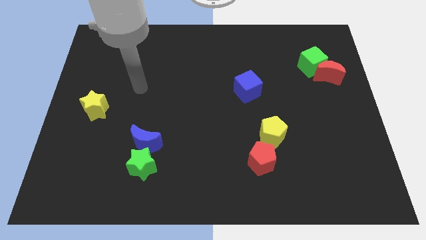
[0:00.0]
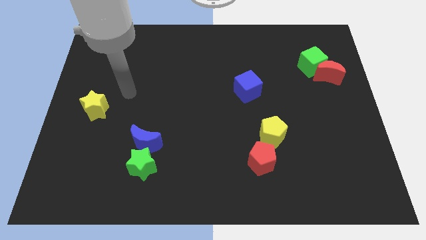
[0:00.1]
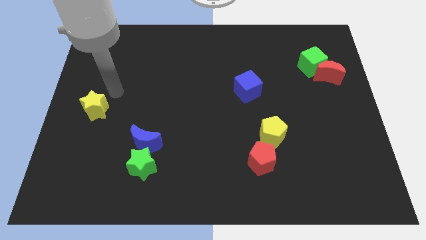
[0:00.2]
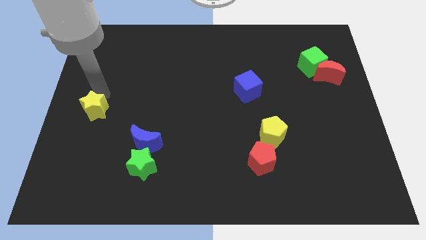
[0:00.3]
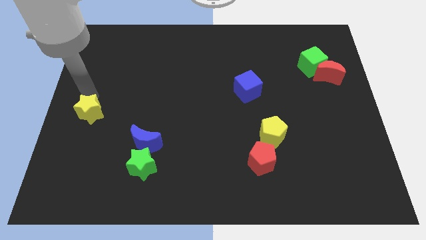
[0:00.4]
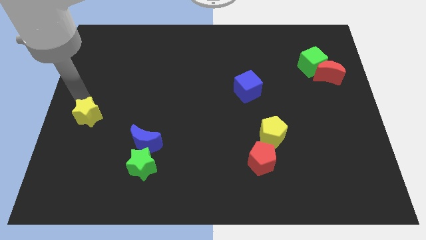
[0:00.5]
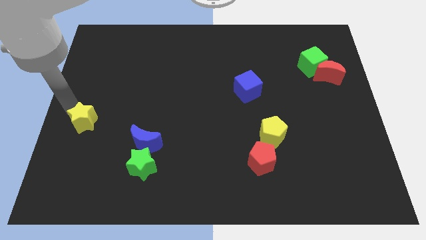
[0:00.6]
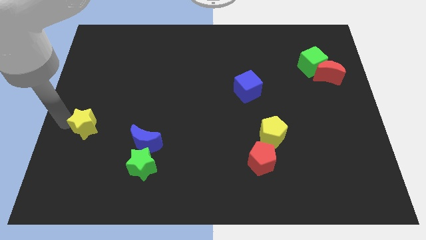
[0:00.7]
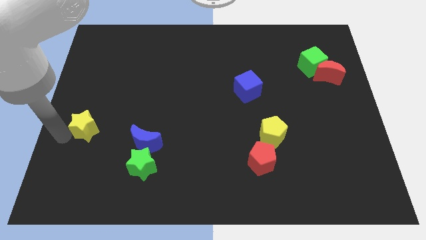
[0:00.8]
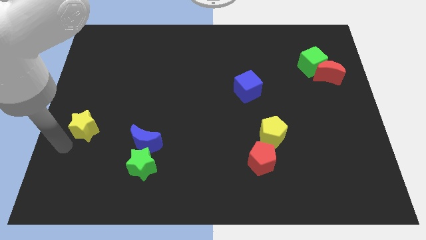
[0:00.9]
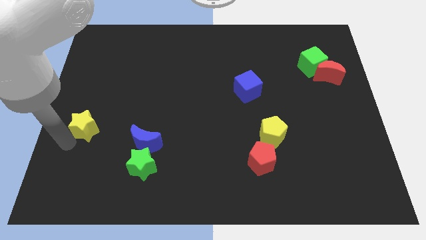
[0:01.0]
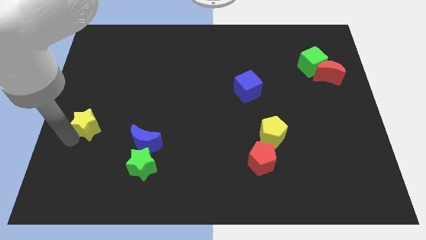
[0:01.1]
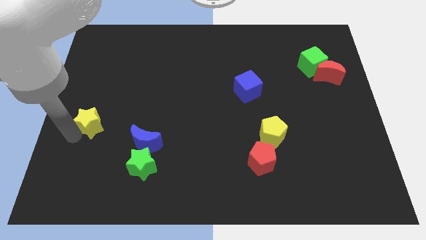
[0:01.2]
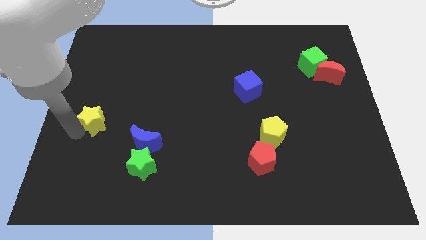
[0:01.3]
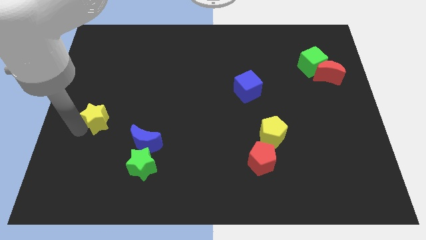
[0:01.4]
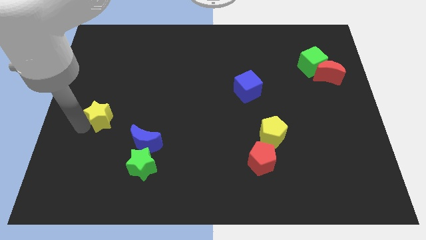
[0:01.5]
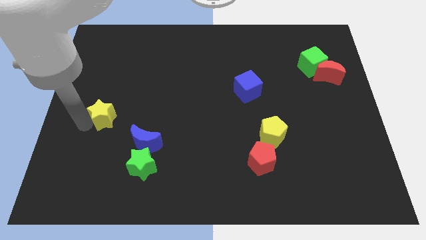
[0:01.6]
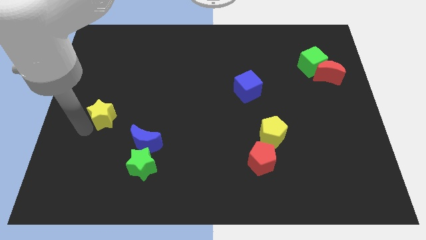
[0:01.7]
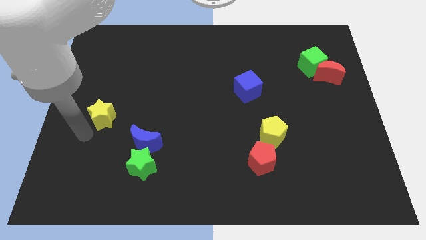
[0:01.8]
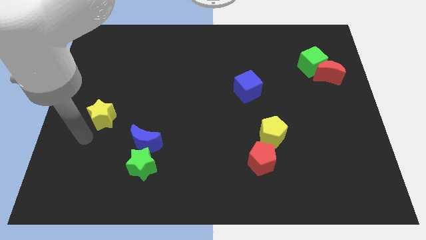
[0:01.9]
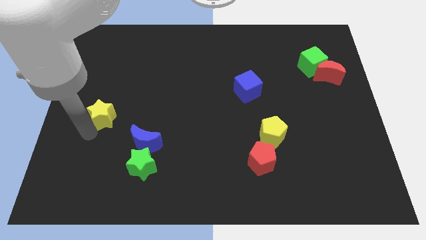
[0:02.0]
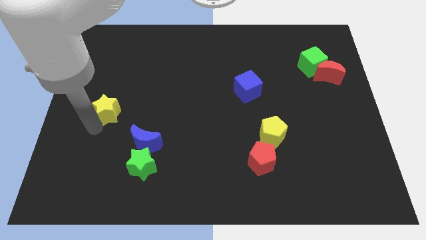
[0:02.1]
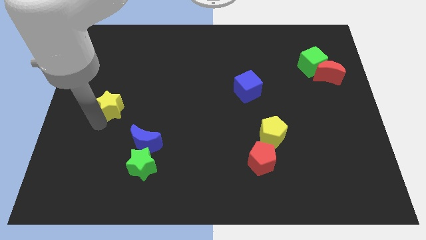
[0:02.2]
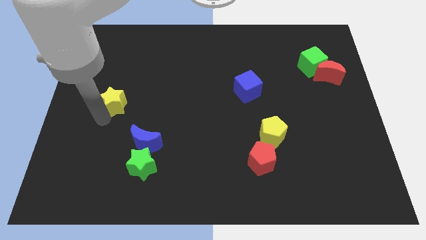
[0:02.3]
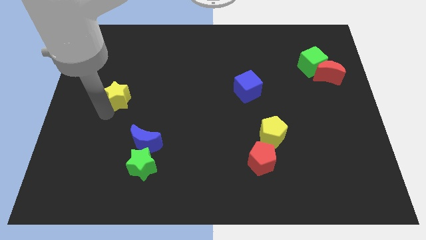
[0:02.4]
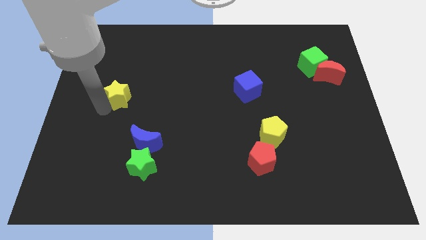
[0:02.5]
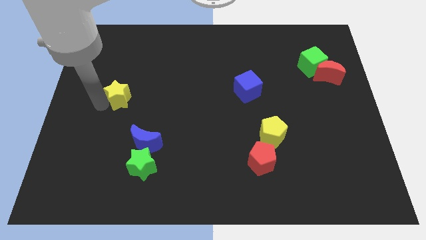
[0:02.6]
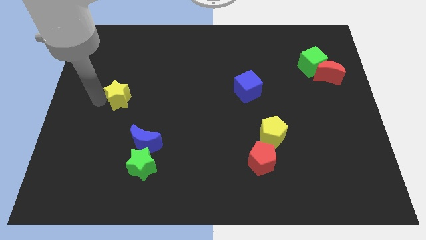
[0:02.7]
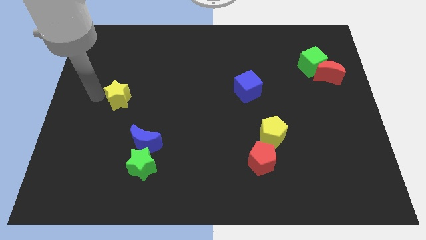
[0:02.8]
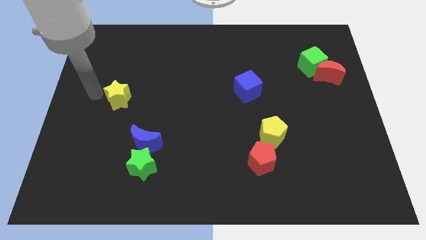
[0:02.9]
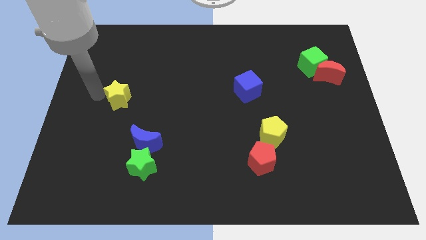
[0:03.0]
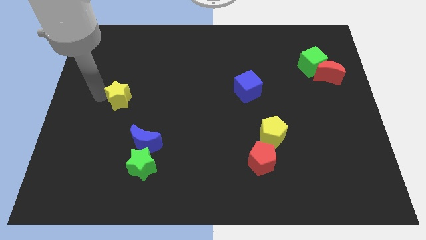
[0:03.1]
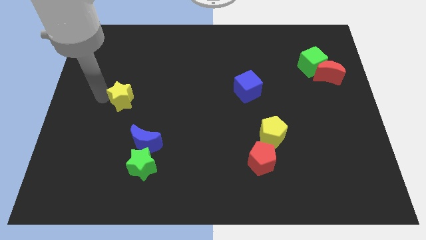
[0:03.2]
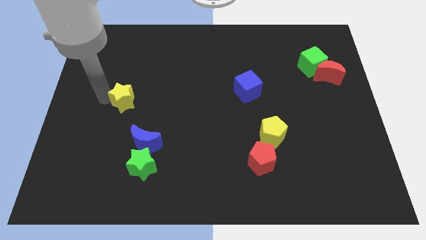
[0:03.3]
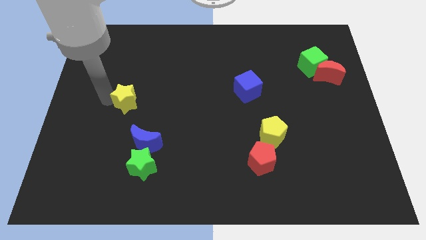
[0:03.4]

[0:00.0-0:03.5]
slide the yellow star a little bit to the right

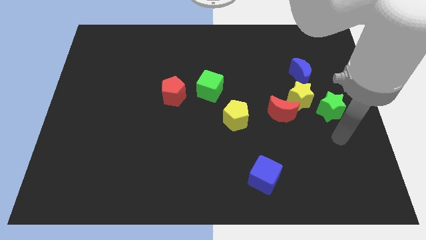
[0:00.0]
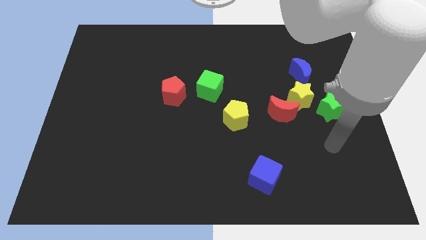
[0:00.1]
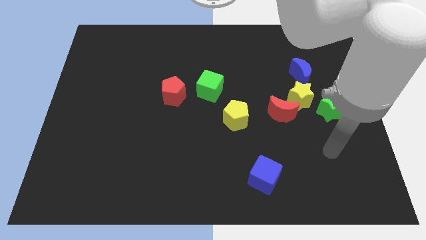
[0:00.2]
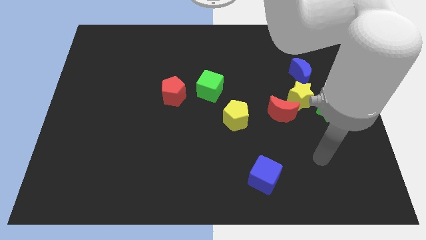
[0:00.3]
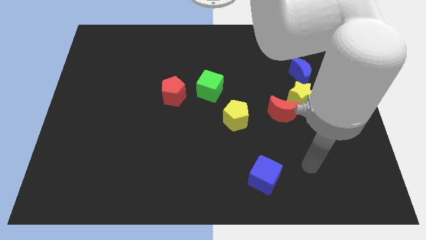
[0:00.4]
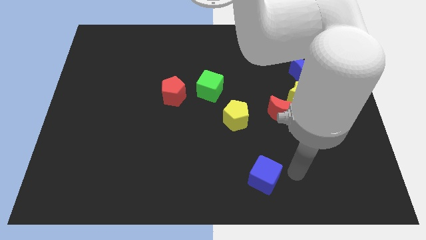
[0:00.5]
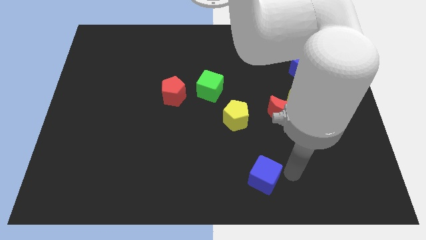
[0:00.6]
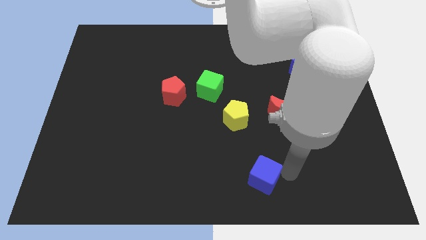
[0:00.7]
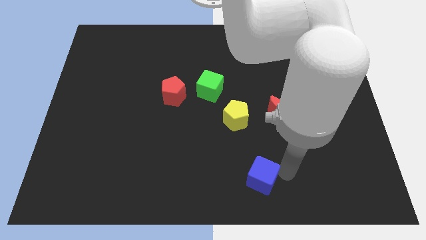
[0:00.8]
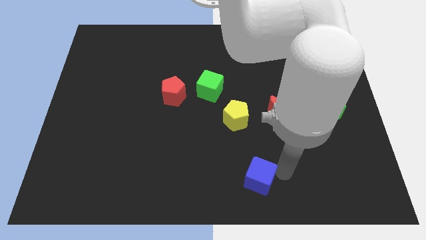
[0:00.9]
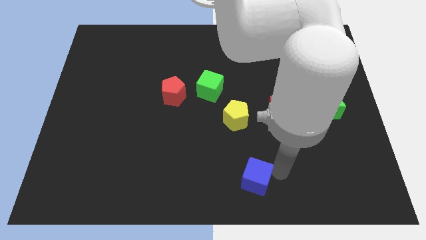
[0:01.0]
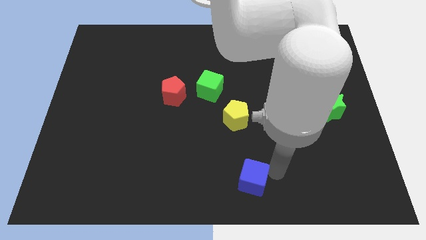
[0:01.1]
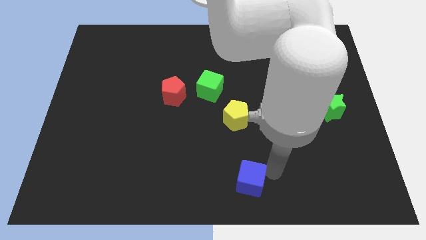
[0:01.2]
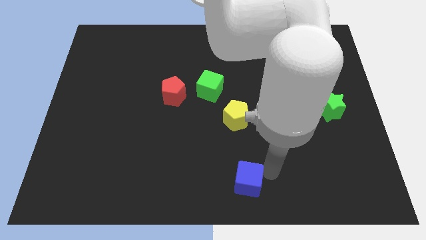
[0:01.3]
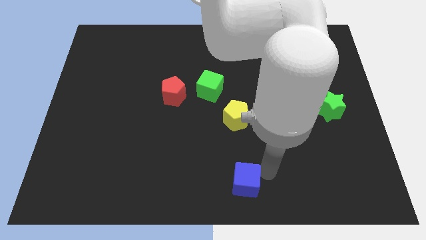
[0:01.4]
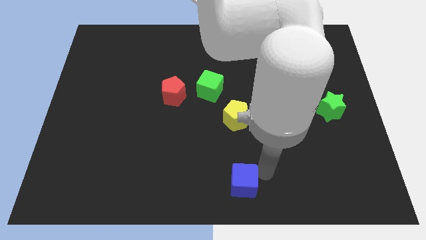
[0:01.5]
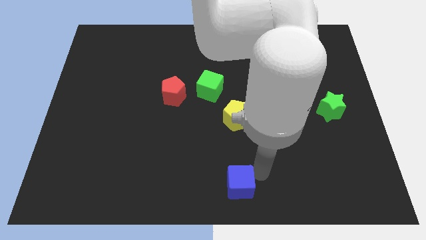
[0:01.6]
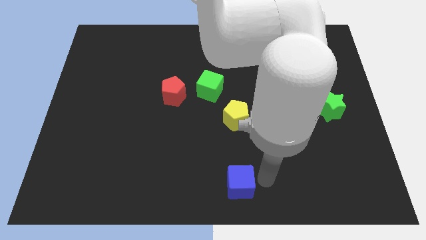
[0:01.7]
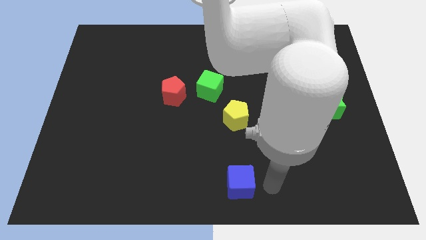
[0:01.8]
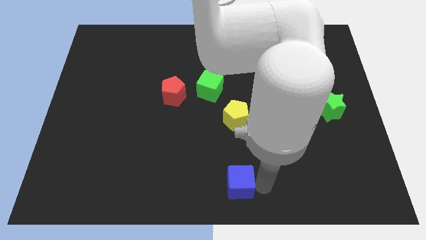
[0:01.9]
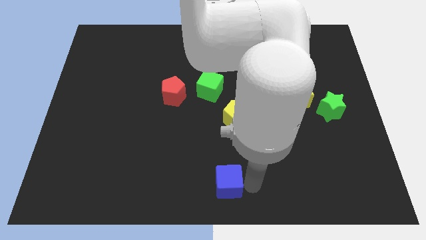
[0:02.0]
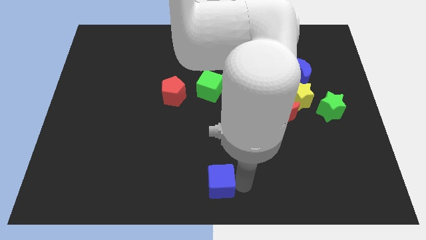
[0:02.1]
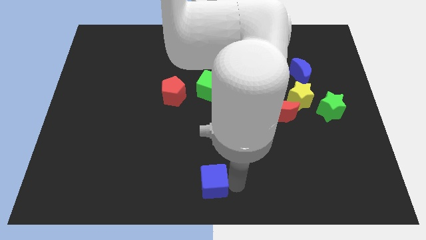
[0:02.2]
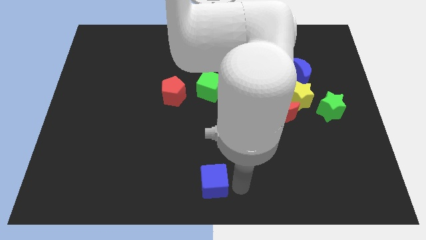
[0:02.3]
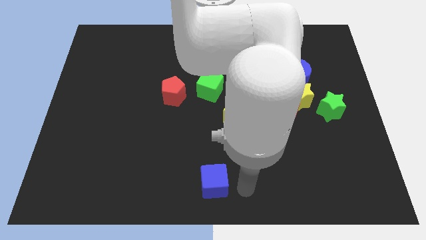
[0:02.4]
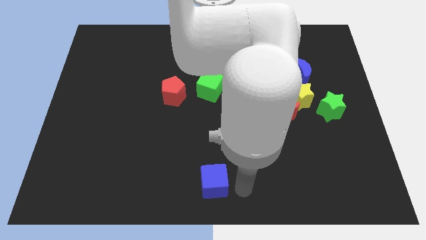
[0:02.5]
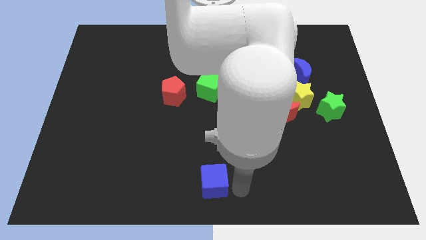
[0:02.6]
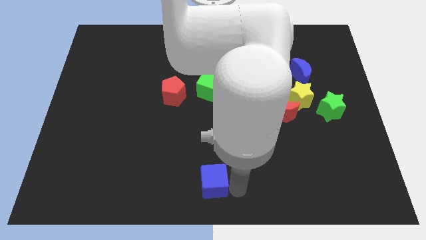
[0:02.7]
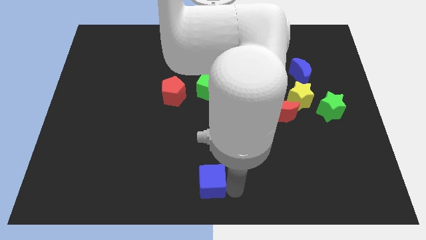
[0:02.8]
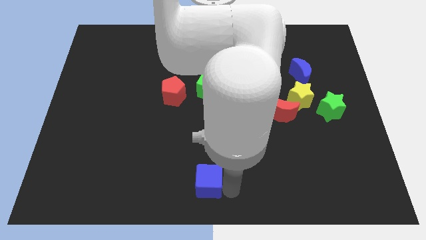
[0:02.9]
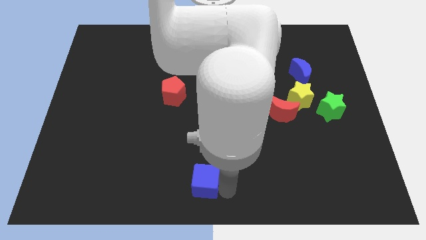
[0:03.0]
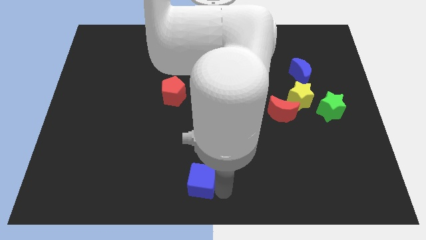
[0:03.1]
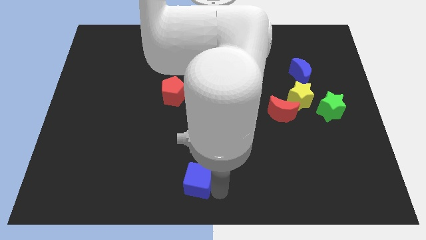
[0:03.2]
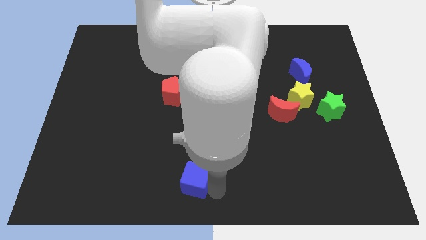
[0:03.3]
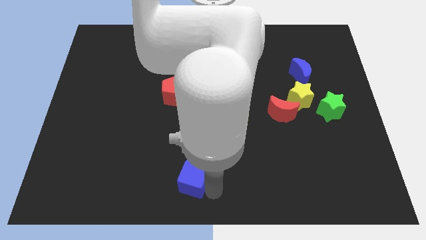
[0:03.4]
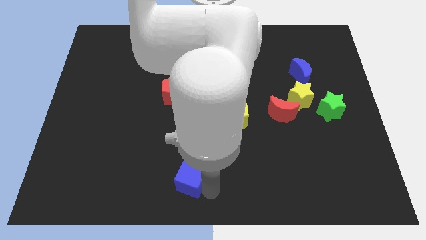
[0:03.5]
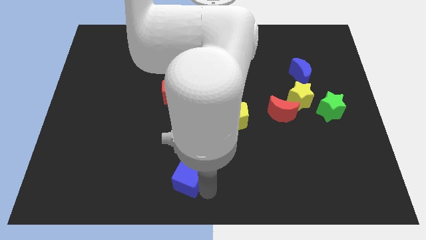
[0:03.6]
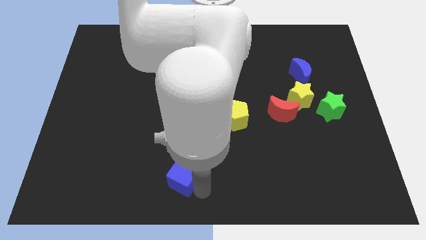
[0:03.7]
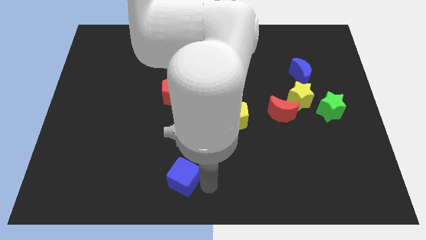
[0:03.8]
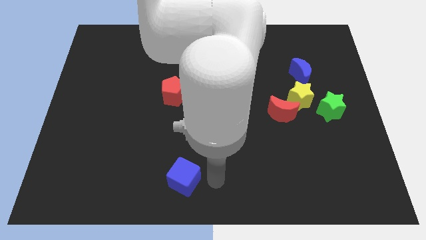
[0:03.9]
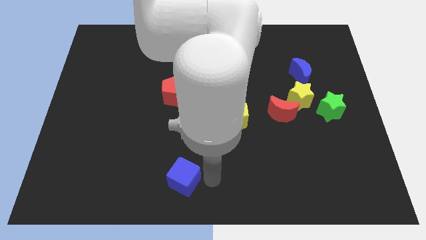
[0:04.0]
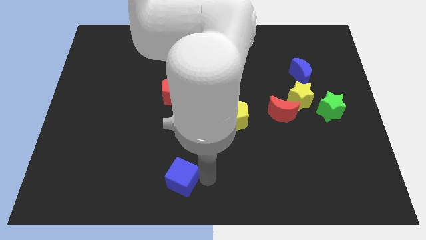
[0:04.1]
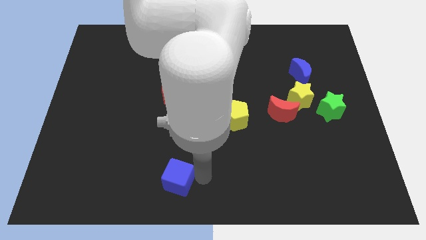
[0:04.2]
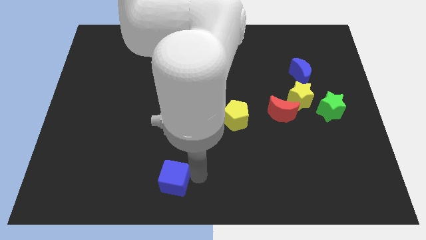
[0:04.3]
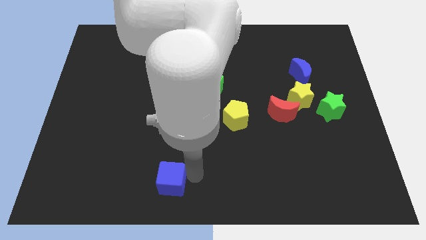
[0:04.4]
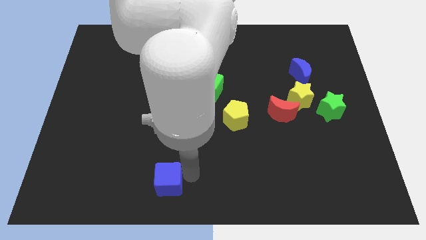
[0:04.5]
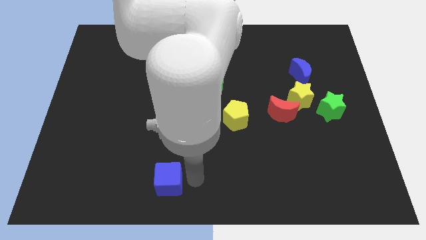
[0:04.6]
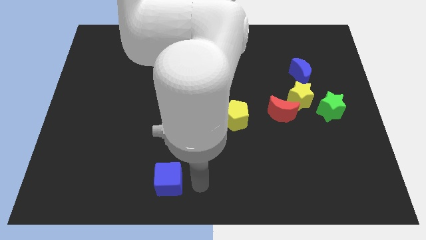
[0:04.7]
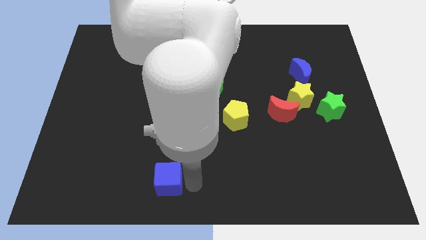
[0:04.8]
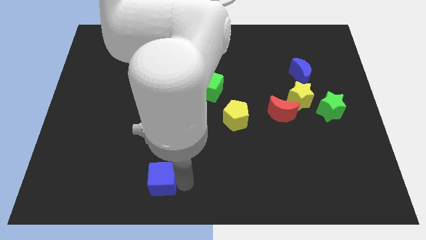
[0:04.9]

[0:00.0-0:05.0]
push the blue cube to the left

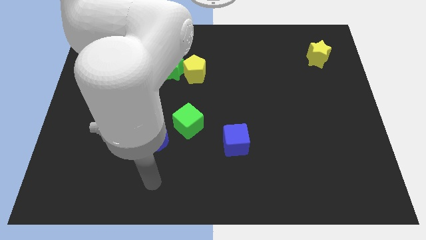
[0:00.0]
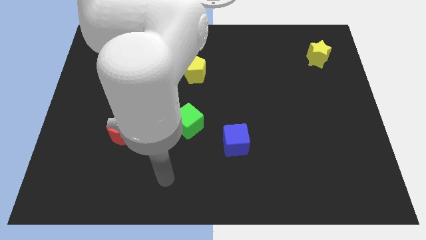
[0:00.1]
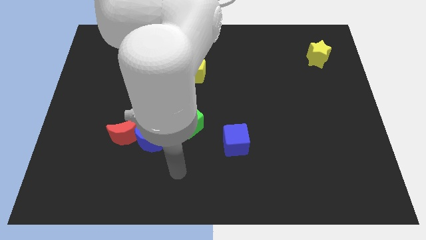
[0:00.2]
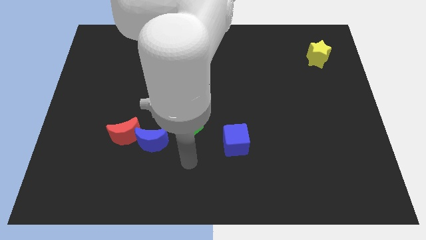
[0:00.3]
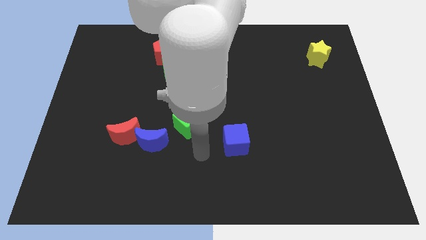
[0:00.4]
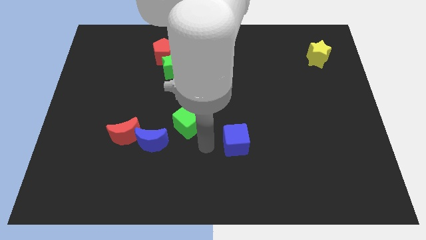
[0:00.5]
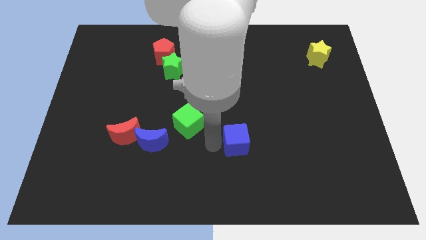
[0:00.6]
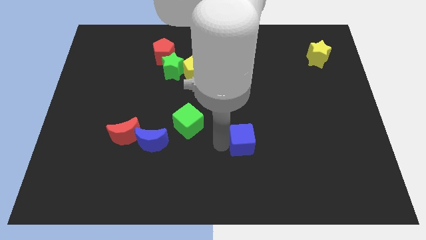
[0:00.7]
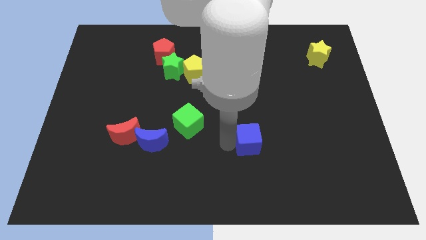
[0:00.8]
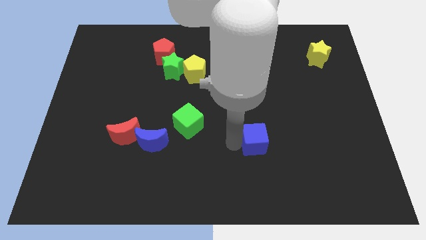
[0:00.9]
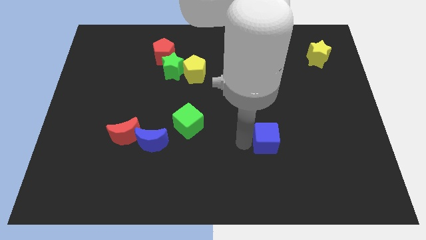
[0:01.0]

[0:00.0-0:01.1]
move the blue cube to the right a little
